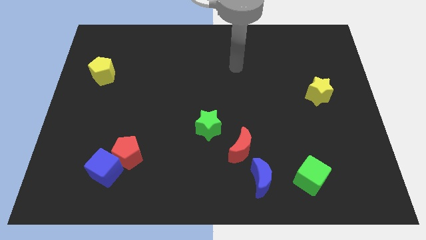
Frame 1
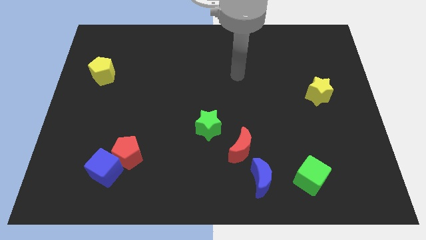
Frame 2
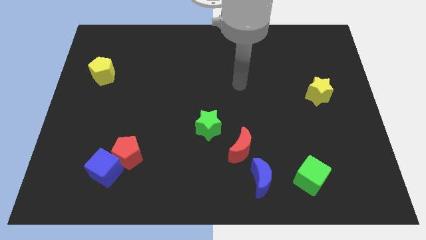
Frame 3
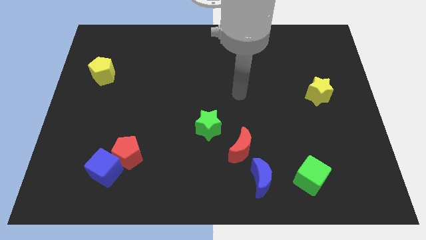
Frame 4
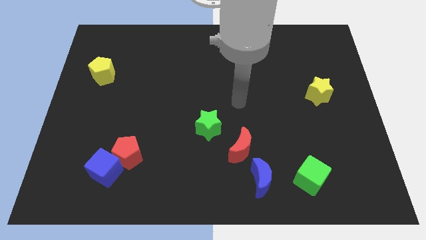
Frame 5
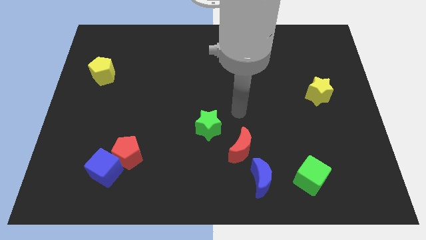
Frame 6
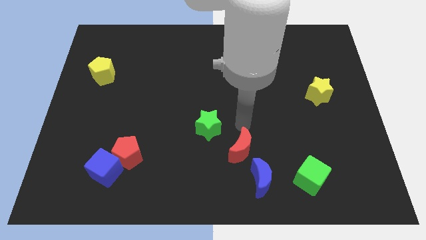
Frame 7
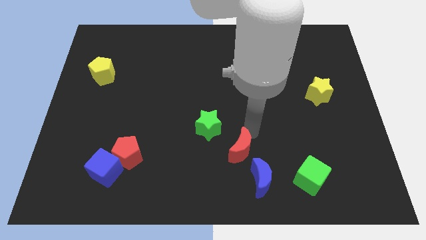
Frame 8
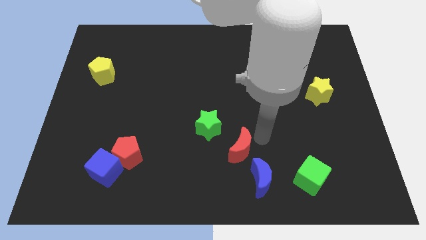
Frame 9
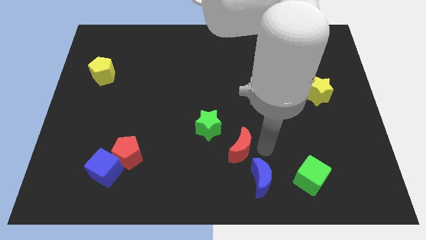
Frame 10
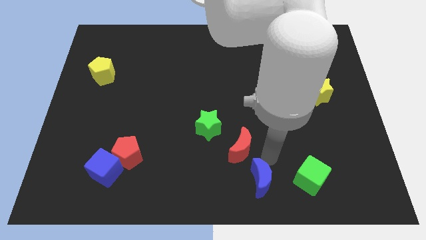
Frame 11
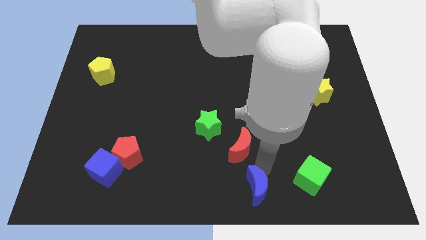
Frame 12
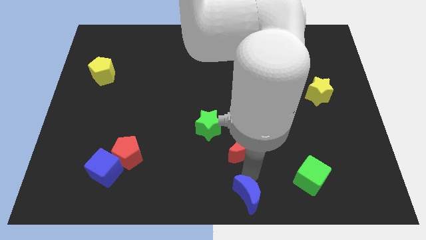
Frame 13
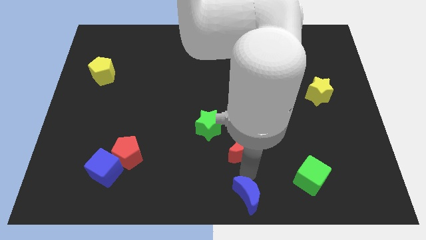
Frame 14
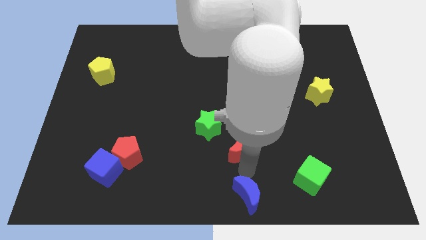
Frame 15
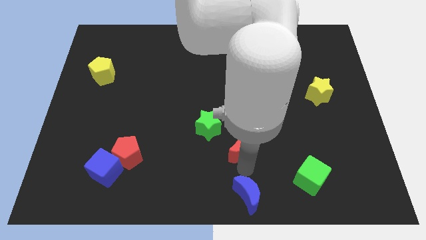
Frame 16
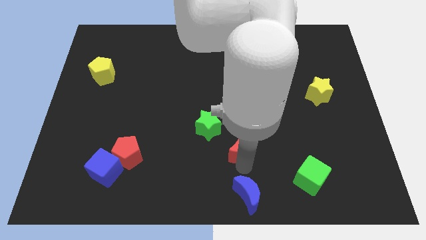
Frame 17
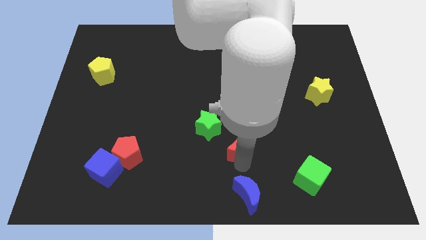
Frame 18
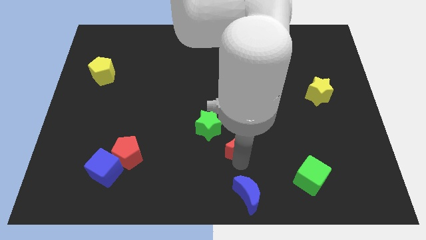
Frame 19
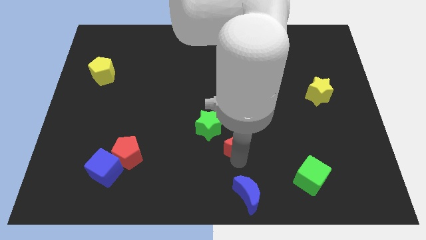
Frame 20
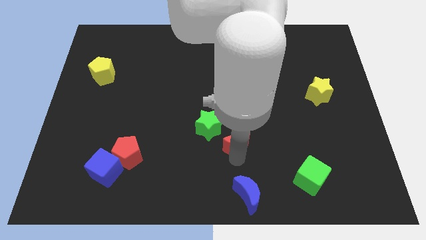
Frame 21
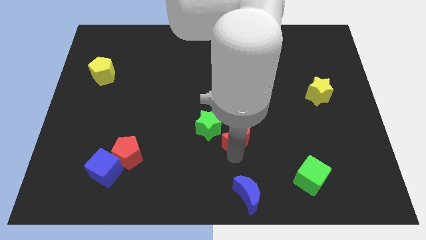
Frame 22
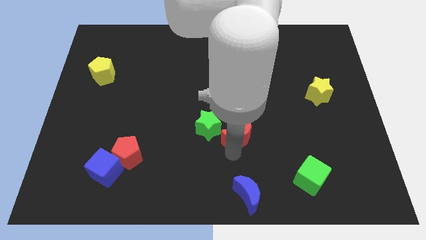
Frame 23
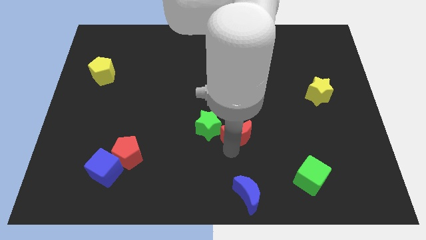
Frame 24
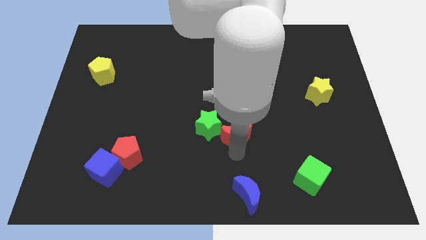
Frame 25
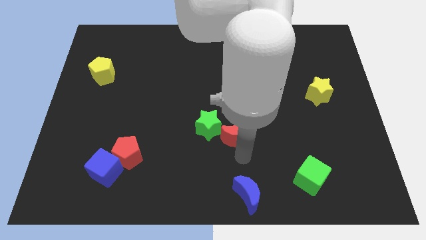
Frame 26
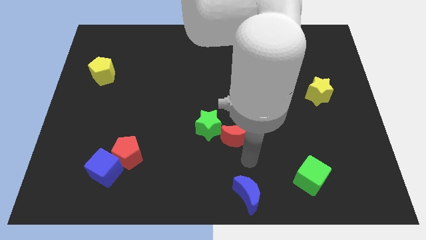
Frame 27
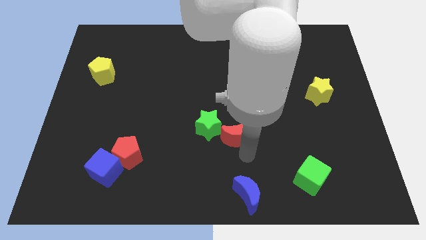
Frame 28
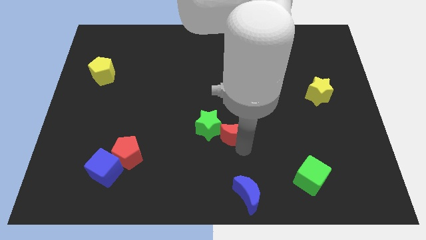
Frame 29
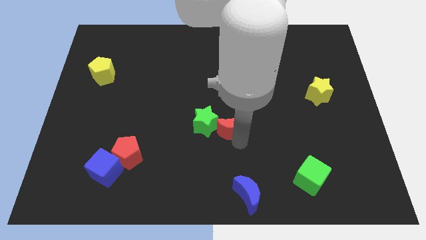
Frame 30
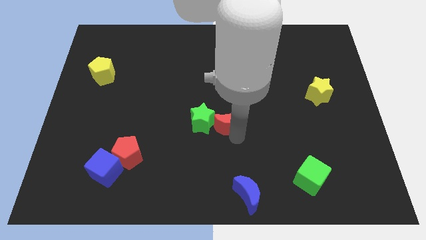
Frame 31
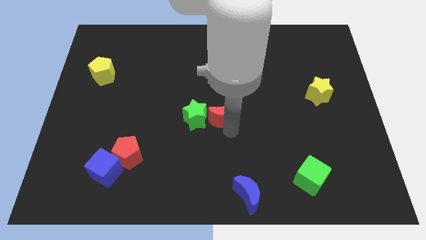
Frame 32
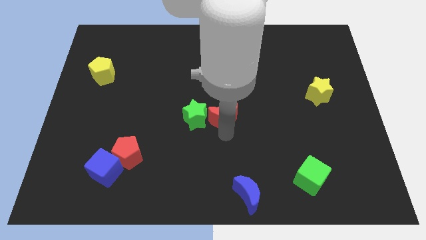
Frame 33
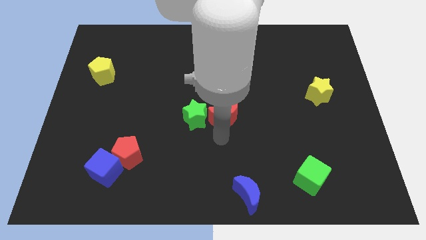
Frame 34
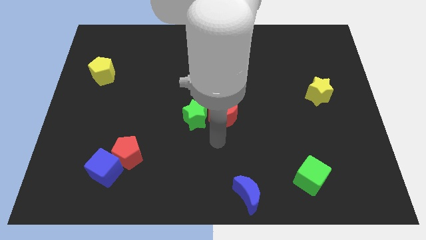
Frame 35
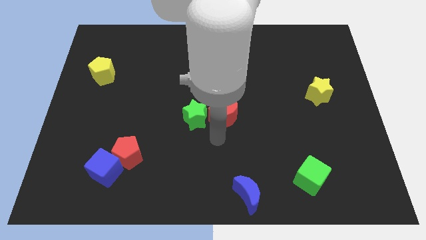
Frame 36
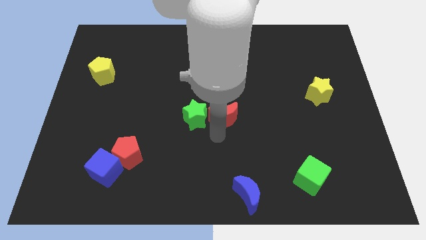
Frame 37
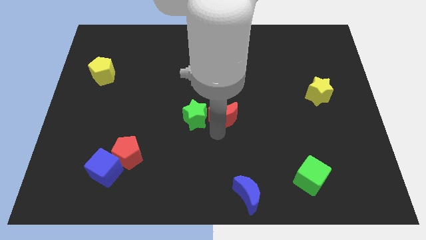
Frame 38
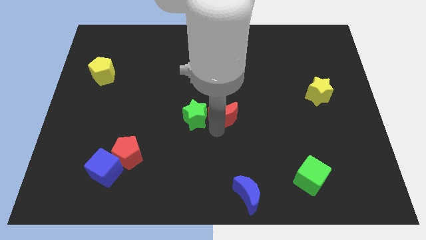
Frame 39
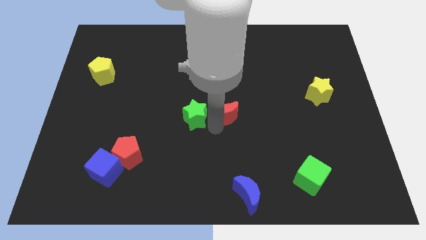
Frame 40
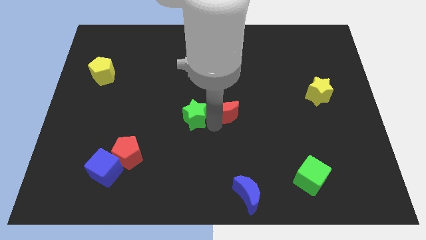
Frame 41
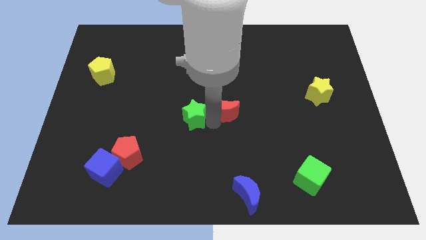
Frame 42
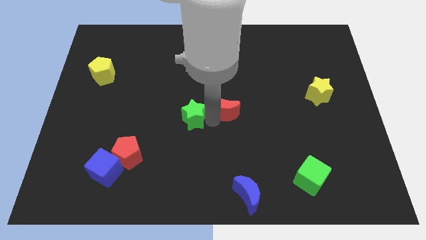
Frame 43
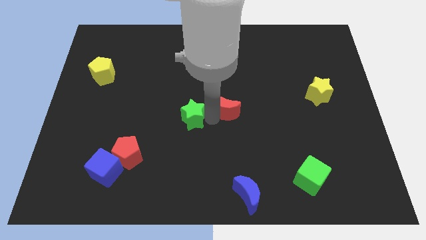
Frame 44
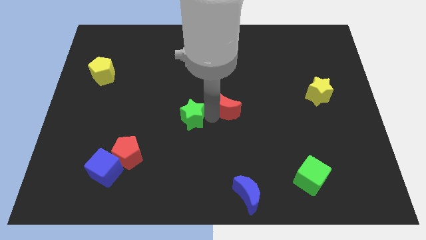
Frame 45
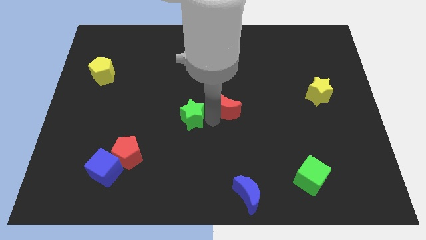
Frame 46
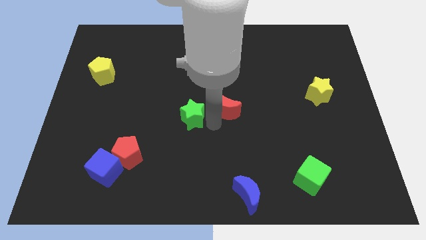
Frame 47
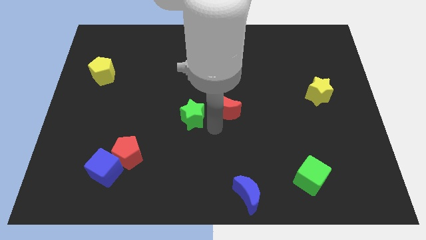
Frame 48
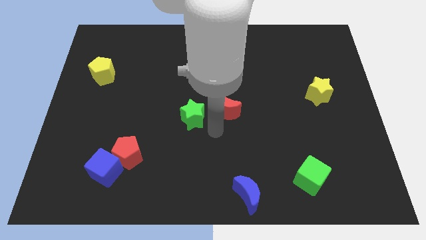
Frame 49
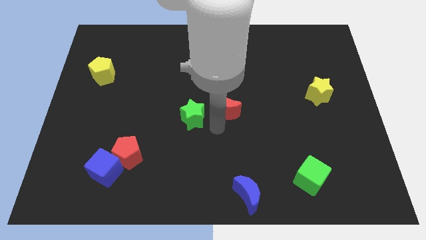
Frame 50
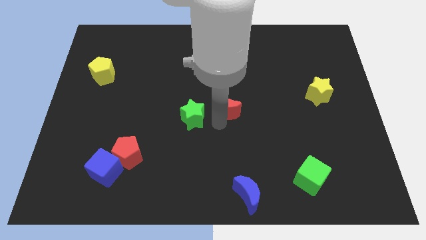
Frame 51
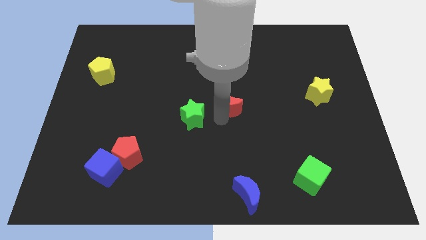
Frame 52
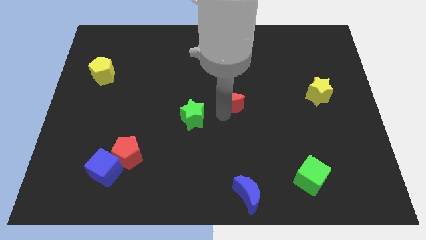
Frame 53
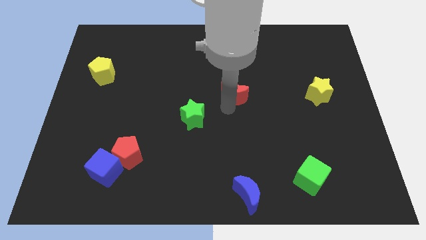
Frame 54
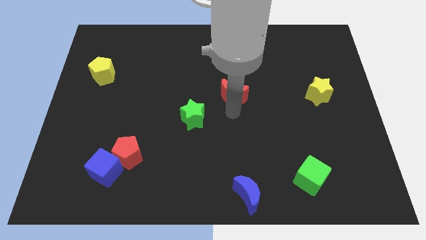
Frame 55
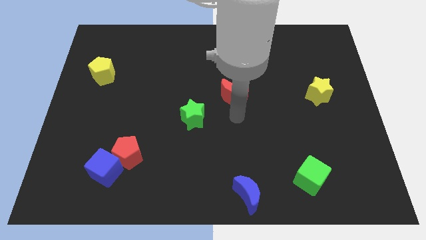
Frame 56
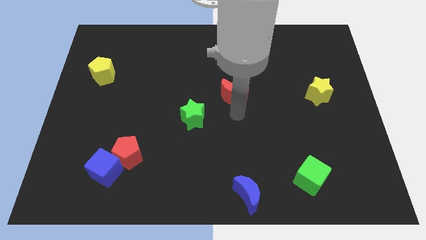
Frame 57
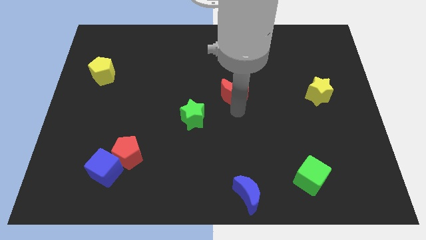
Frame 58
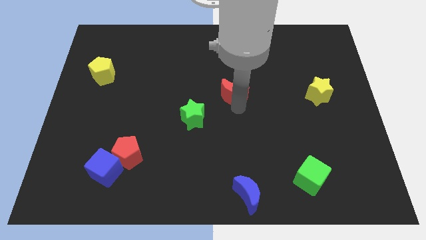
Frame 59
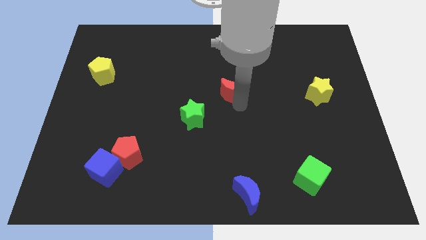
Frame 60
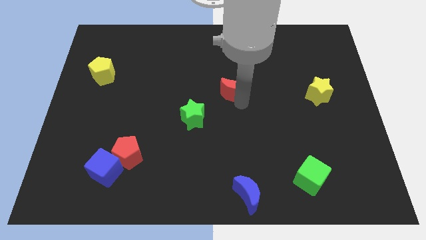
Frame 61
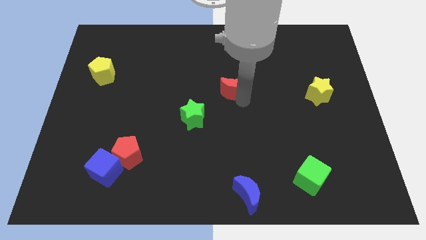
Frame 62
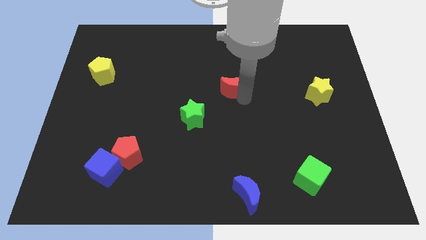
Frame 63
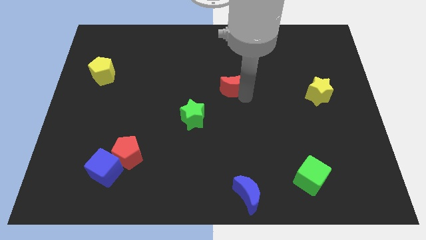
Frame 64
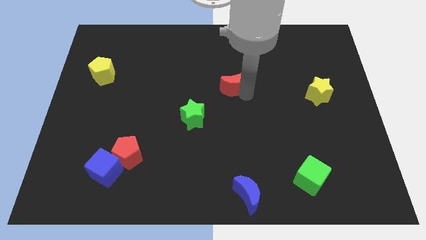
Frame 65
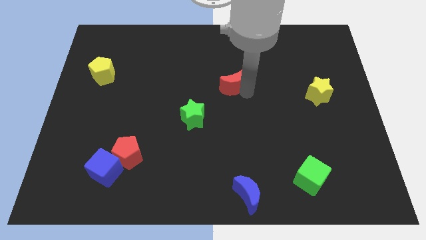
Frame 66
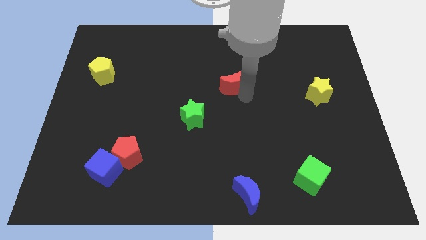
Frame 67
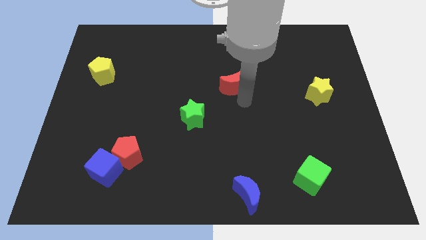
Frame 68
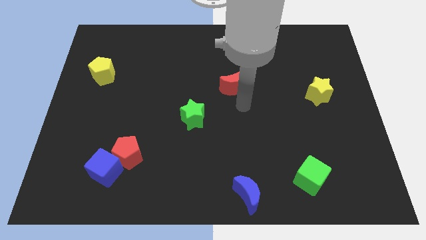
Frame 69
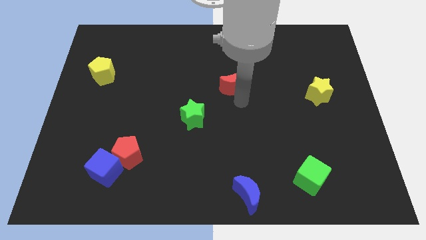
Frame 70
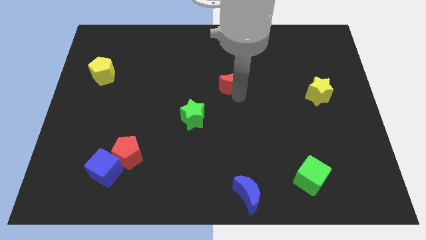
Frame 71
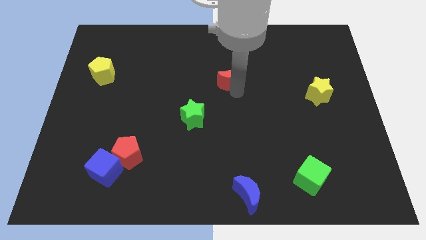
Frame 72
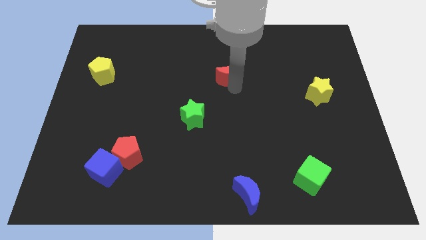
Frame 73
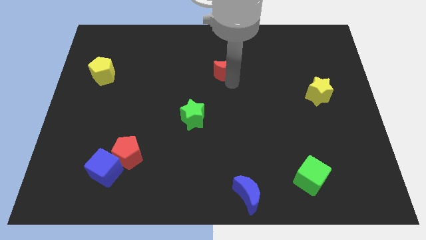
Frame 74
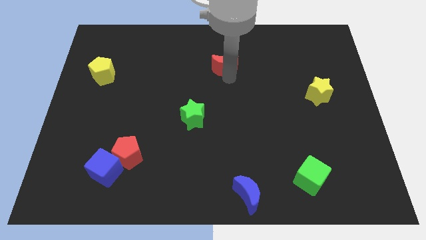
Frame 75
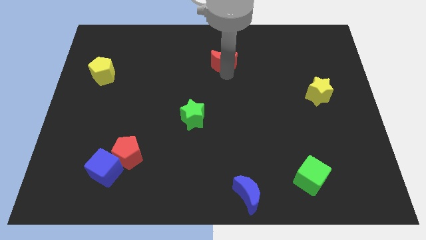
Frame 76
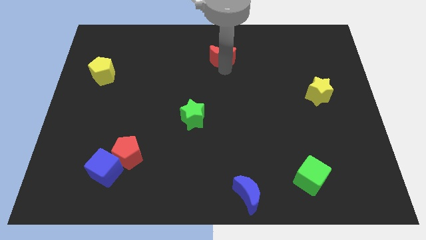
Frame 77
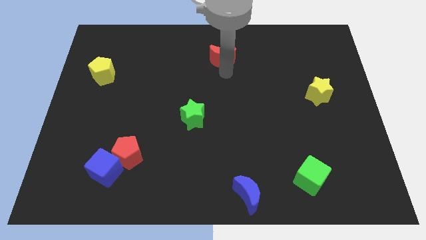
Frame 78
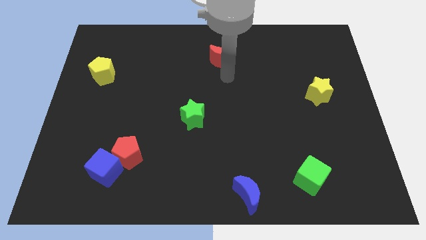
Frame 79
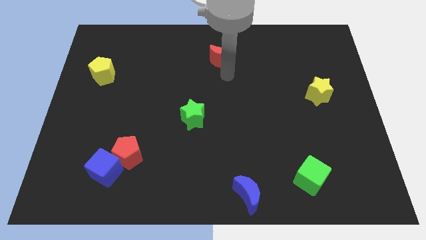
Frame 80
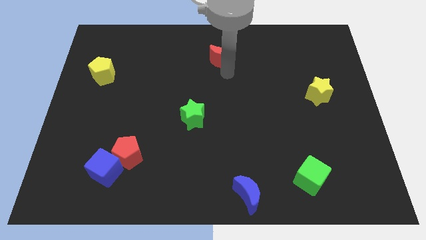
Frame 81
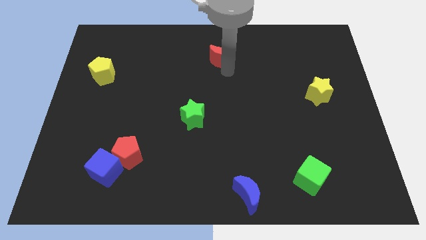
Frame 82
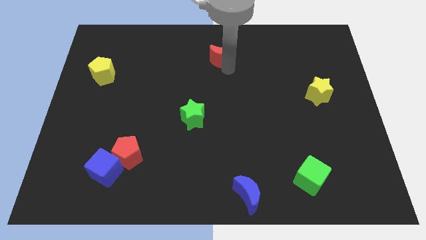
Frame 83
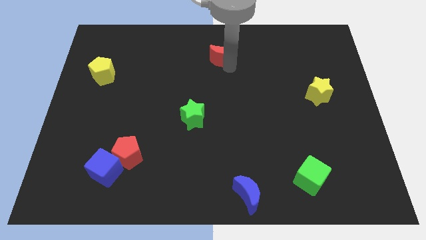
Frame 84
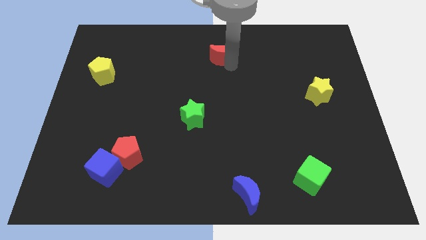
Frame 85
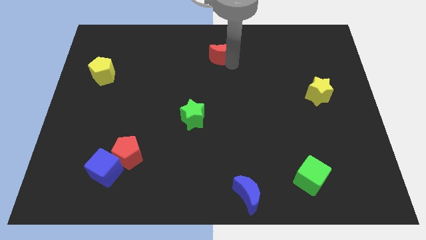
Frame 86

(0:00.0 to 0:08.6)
put the red moon to the top side
